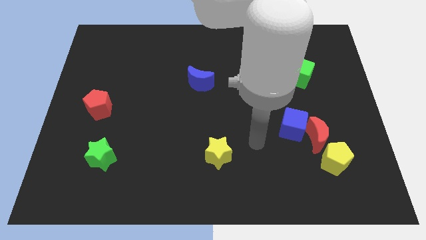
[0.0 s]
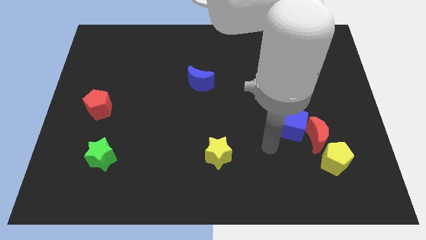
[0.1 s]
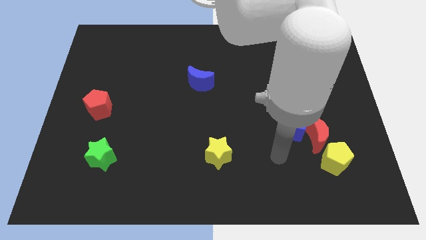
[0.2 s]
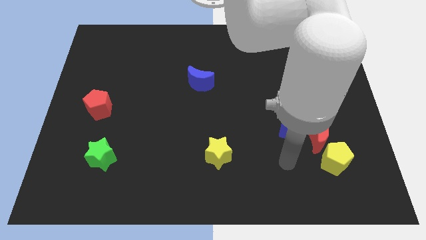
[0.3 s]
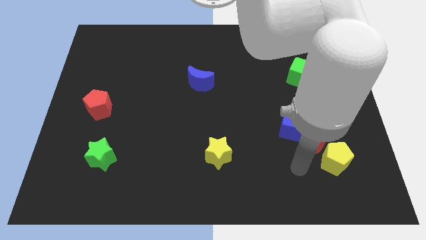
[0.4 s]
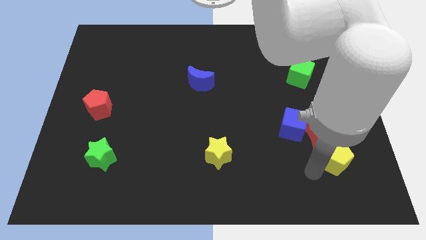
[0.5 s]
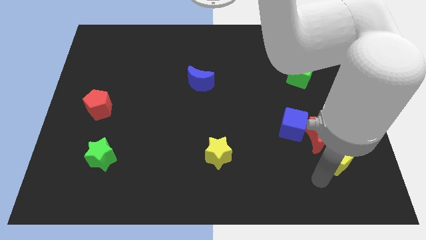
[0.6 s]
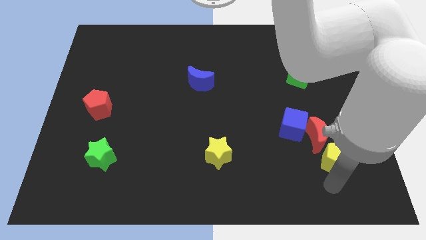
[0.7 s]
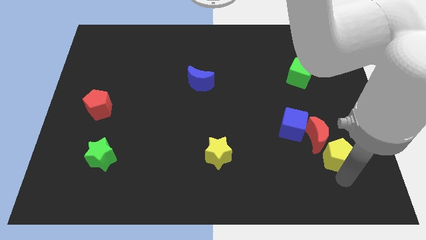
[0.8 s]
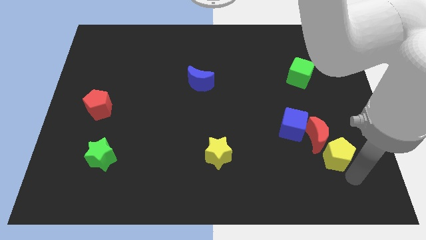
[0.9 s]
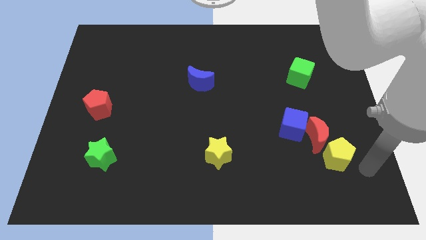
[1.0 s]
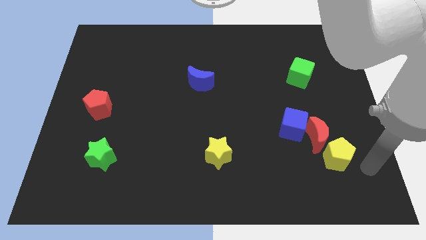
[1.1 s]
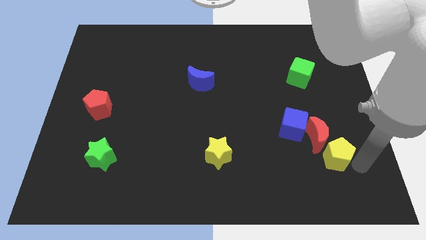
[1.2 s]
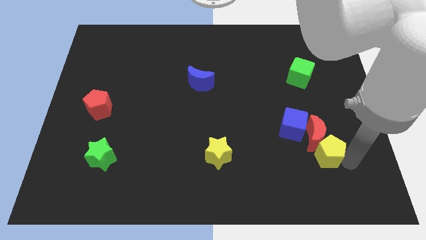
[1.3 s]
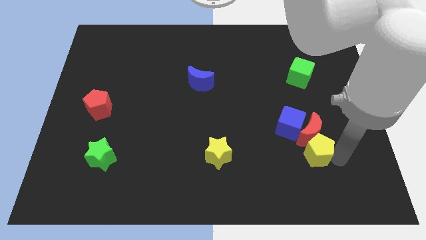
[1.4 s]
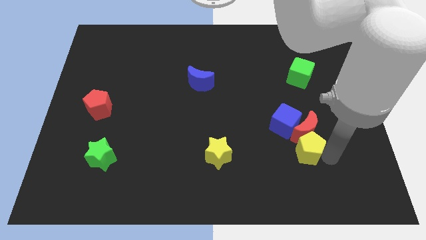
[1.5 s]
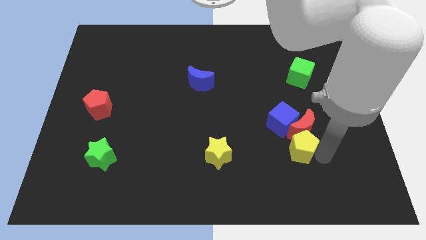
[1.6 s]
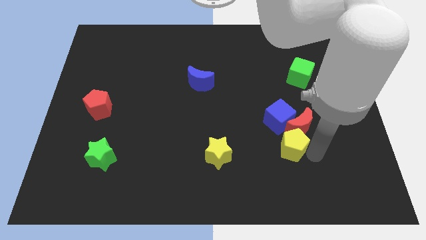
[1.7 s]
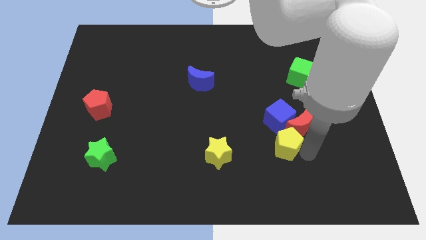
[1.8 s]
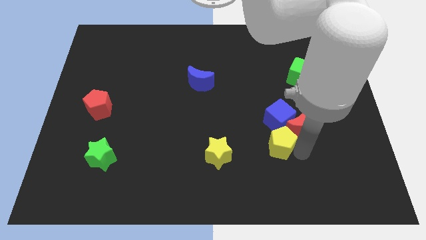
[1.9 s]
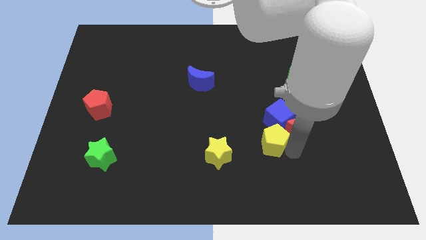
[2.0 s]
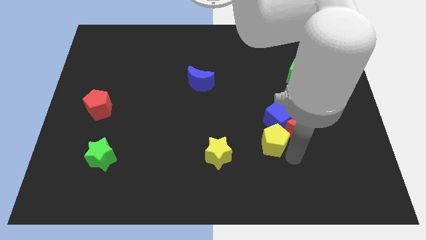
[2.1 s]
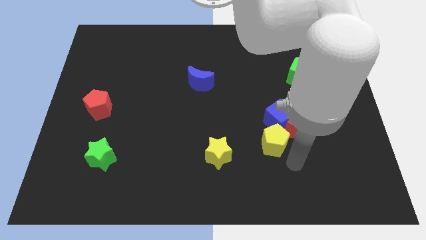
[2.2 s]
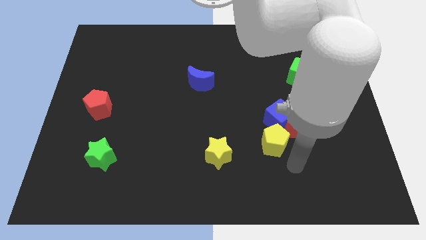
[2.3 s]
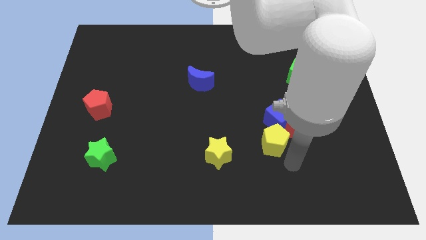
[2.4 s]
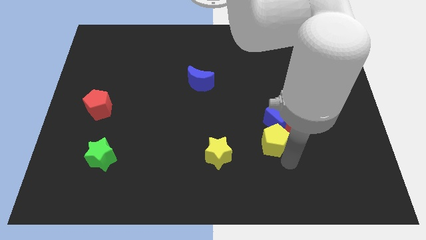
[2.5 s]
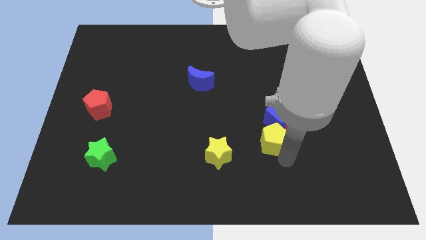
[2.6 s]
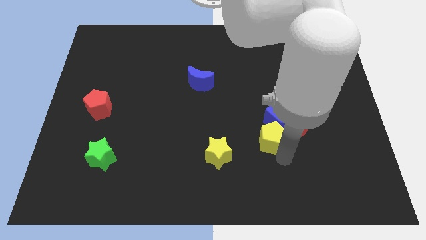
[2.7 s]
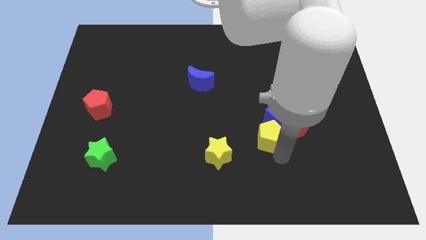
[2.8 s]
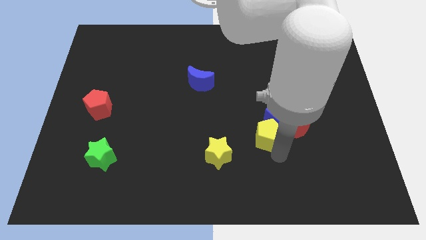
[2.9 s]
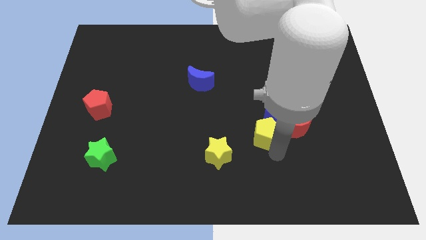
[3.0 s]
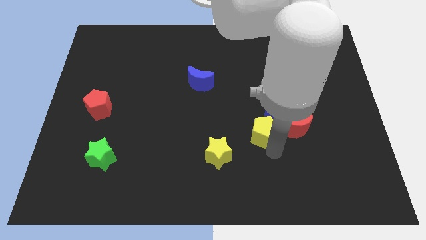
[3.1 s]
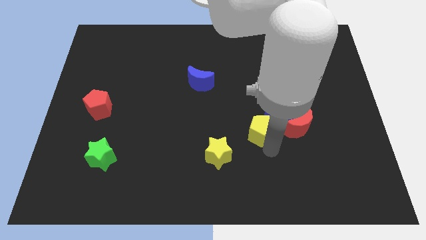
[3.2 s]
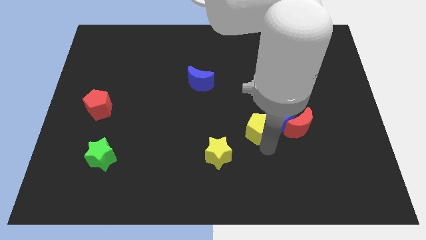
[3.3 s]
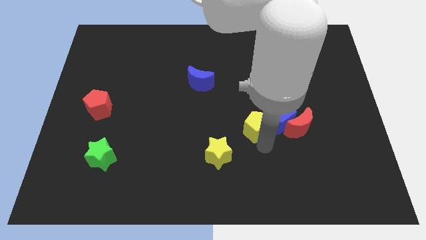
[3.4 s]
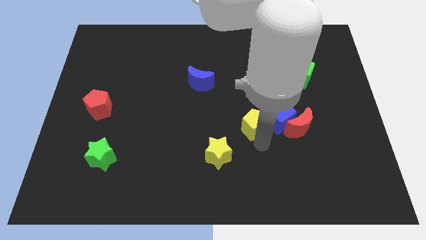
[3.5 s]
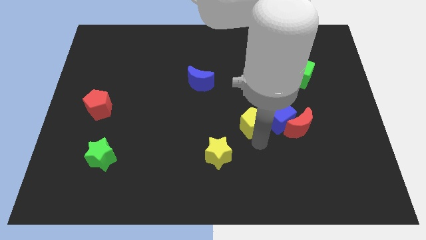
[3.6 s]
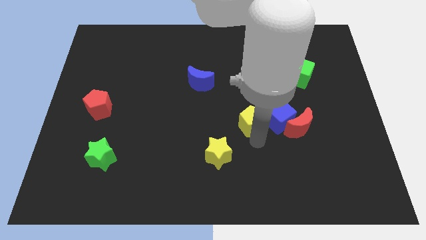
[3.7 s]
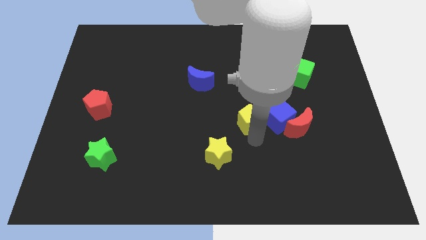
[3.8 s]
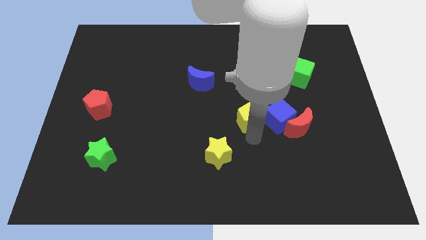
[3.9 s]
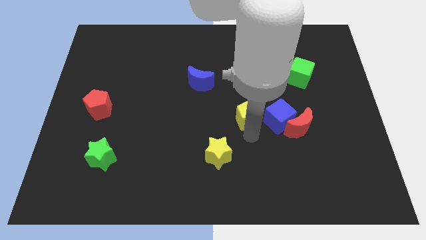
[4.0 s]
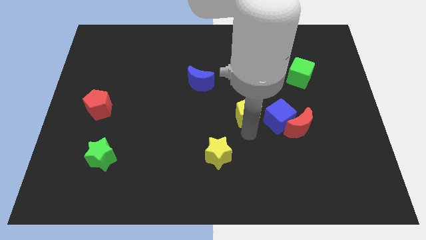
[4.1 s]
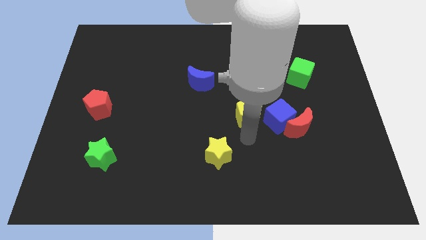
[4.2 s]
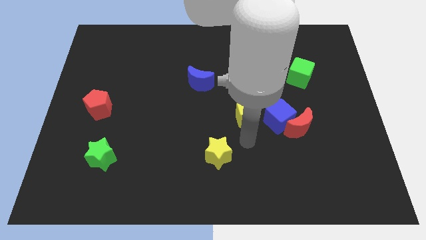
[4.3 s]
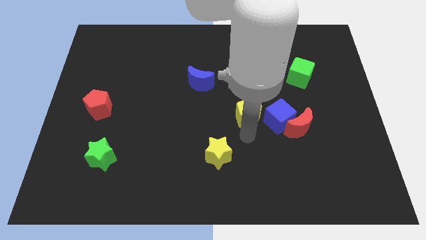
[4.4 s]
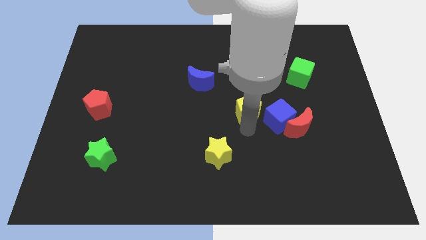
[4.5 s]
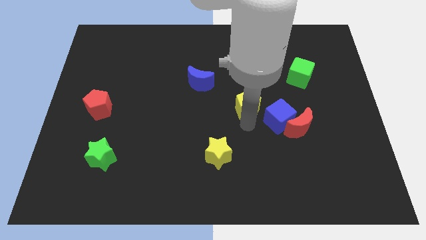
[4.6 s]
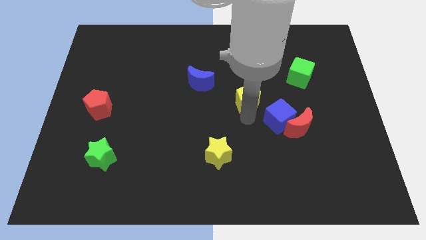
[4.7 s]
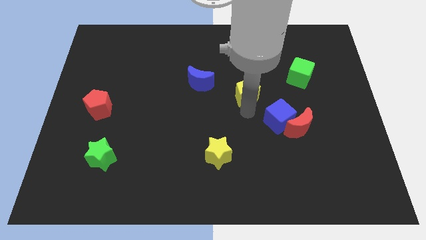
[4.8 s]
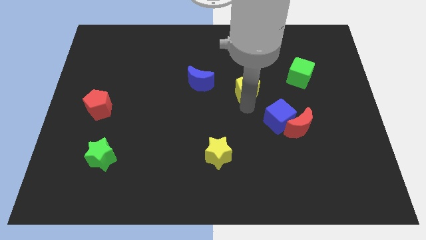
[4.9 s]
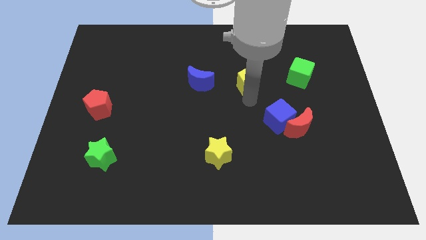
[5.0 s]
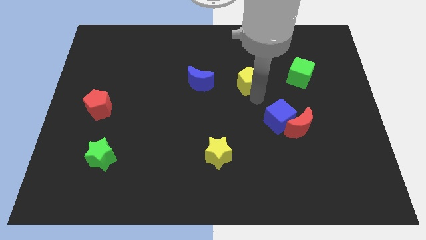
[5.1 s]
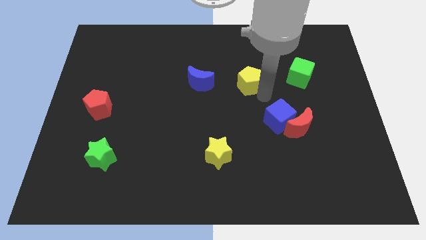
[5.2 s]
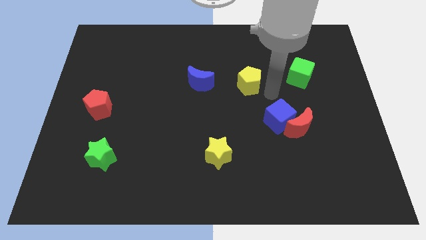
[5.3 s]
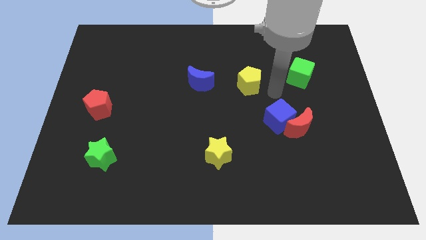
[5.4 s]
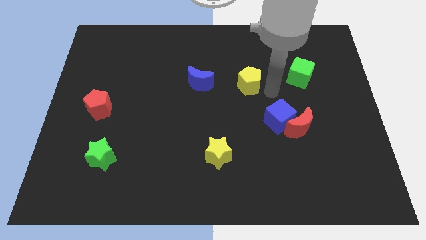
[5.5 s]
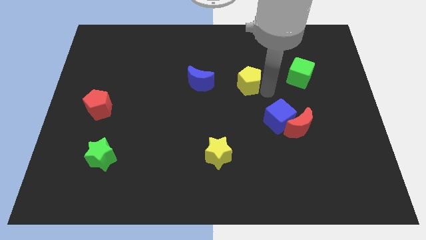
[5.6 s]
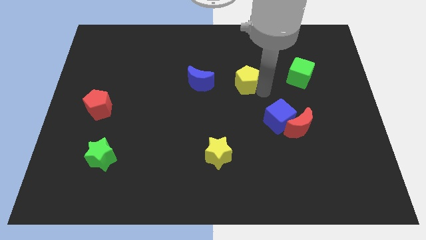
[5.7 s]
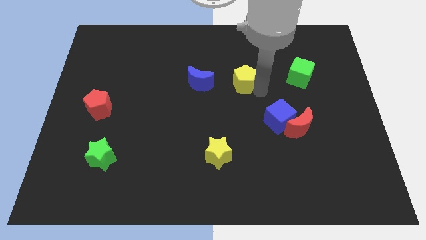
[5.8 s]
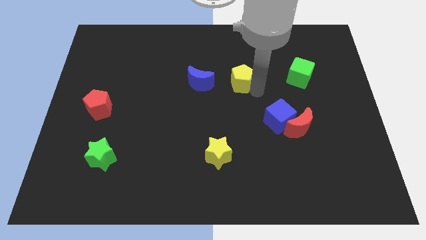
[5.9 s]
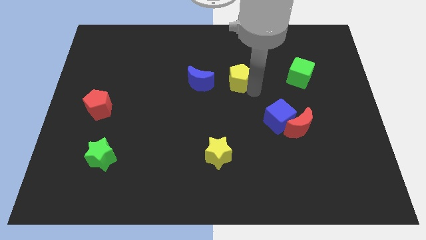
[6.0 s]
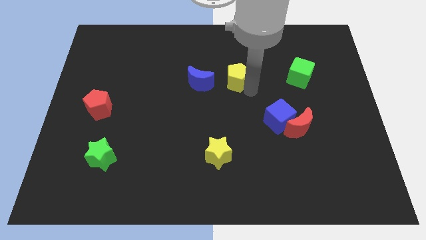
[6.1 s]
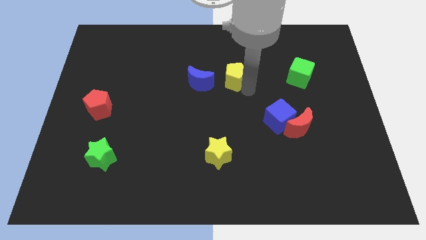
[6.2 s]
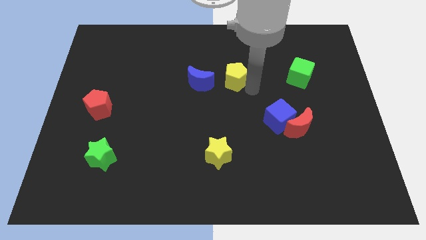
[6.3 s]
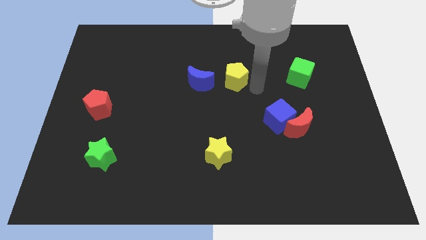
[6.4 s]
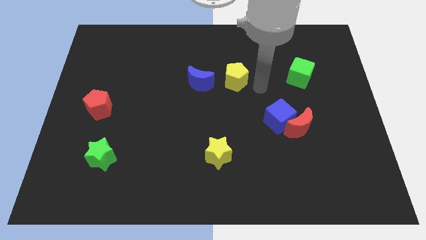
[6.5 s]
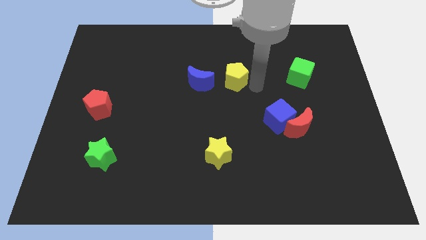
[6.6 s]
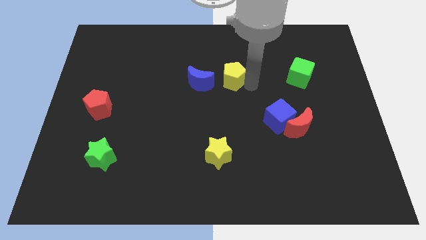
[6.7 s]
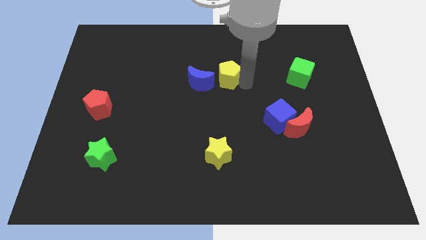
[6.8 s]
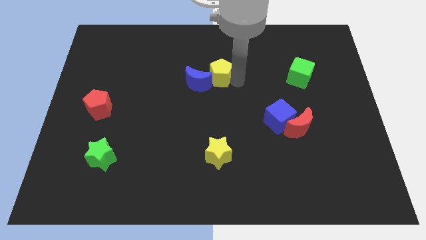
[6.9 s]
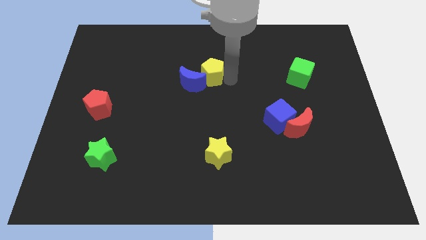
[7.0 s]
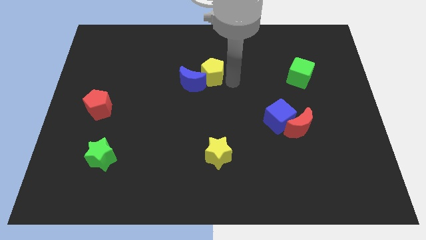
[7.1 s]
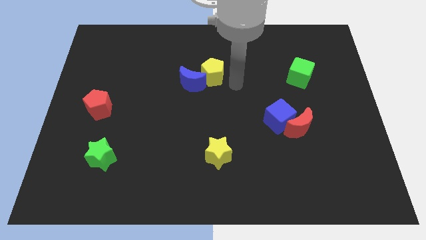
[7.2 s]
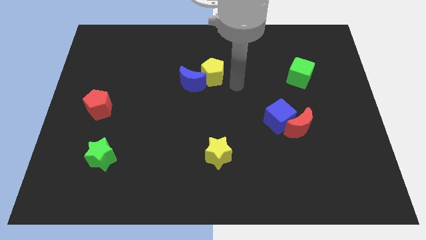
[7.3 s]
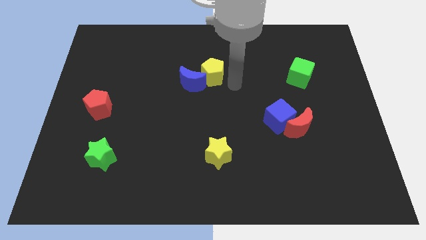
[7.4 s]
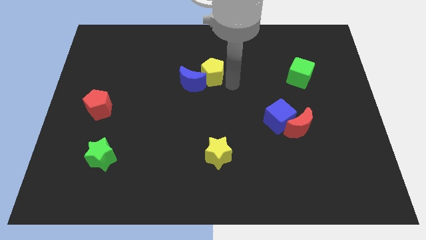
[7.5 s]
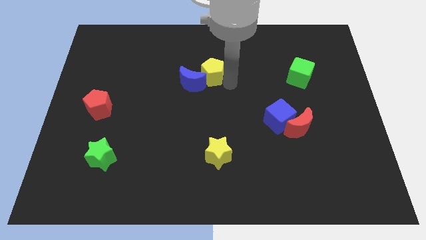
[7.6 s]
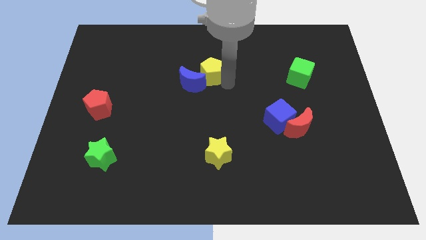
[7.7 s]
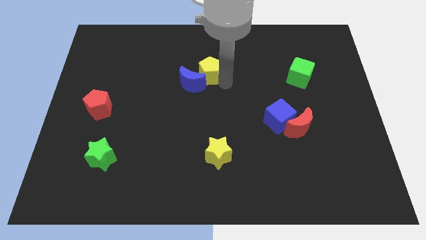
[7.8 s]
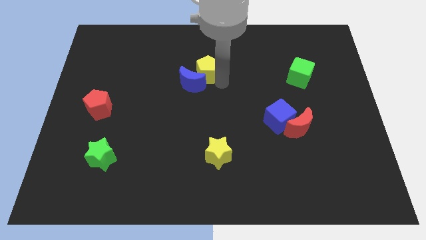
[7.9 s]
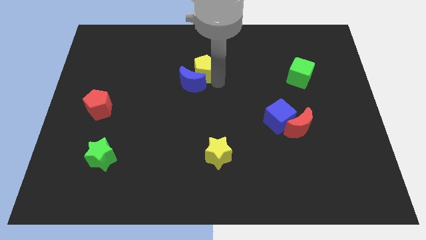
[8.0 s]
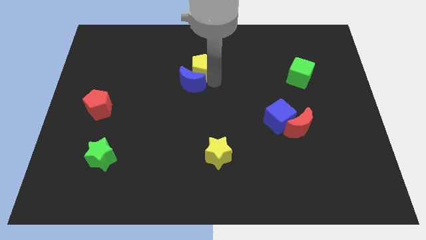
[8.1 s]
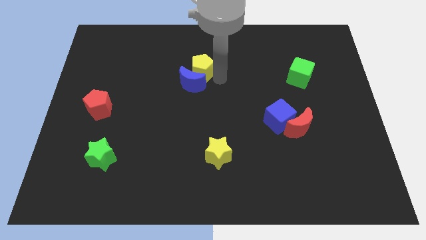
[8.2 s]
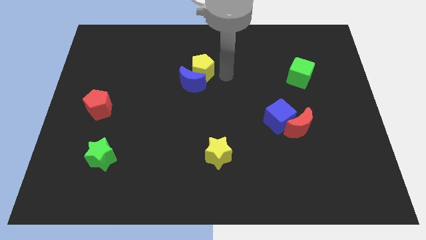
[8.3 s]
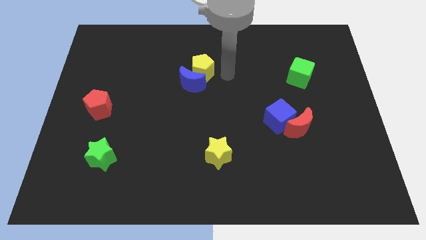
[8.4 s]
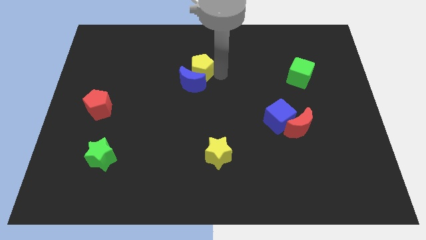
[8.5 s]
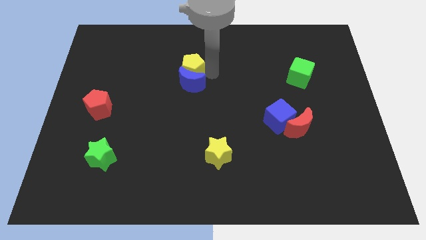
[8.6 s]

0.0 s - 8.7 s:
push the yellow pentagon to the top left side of the blue moon
